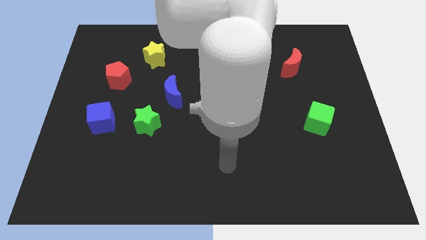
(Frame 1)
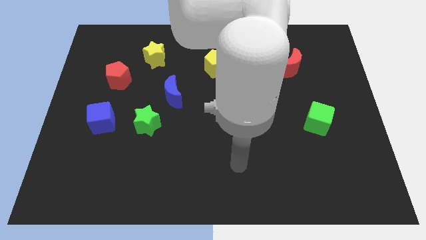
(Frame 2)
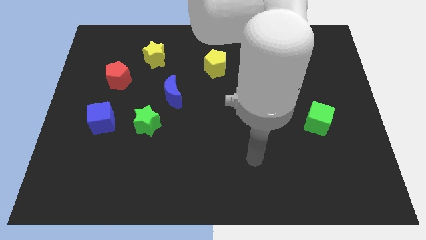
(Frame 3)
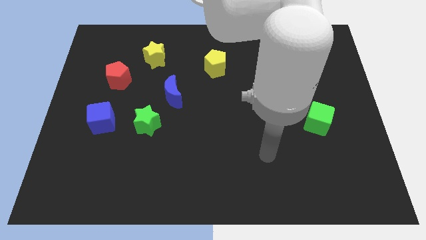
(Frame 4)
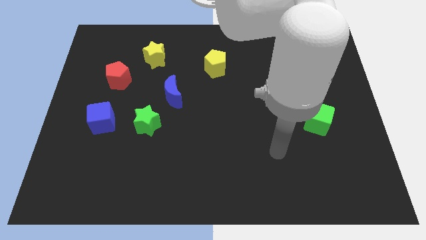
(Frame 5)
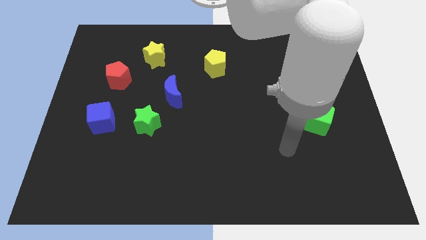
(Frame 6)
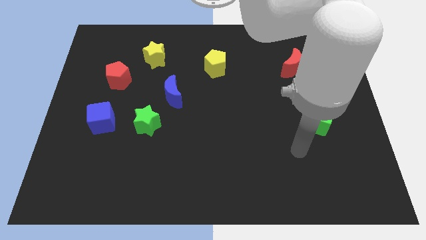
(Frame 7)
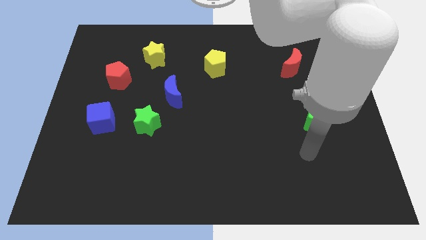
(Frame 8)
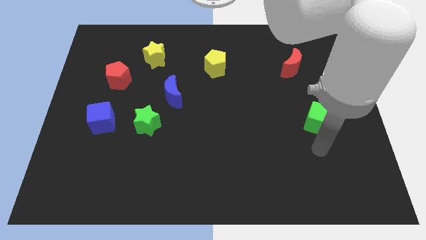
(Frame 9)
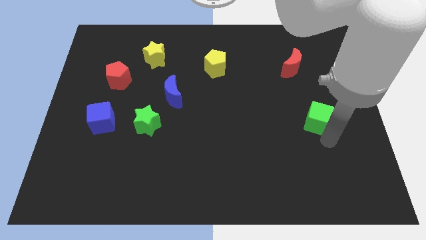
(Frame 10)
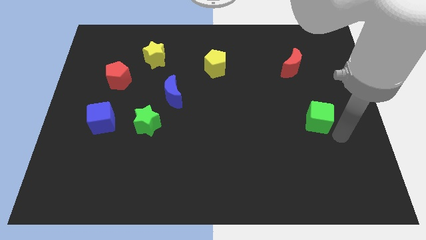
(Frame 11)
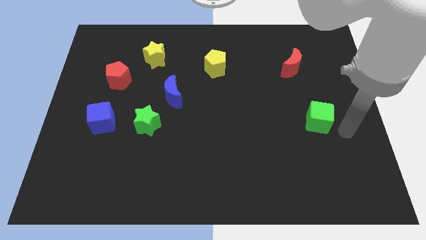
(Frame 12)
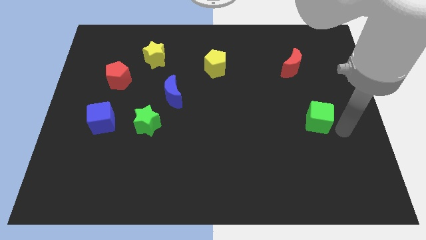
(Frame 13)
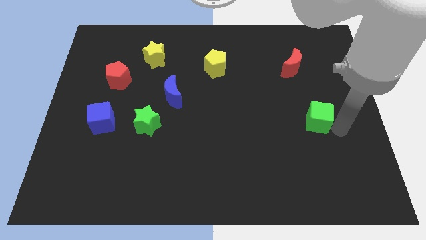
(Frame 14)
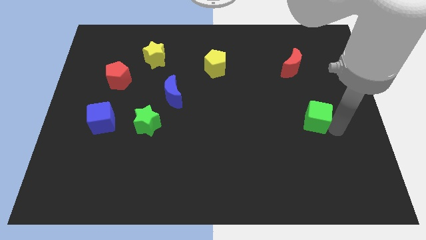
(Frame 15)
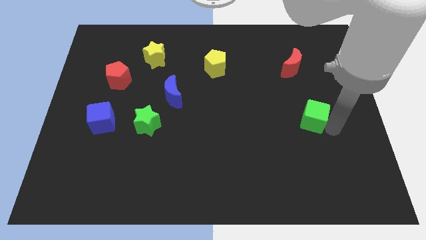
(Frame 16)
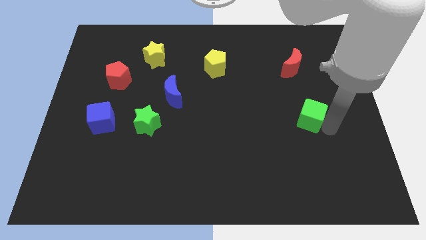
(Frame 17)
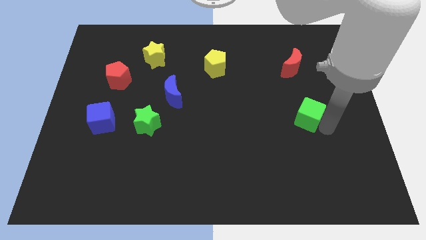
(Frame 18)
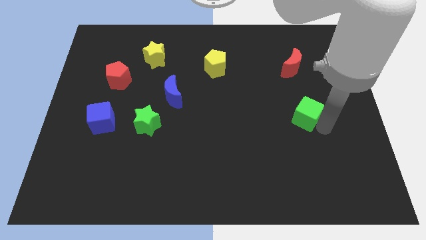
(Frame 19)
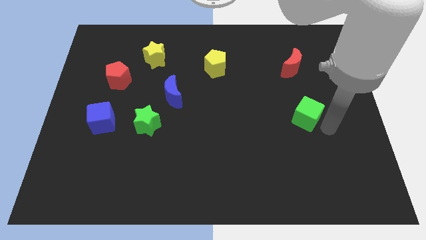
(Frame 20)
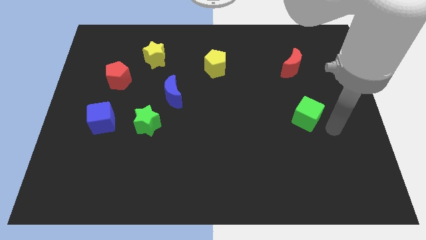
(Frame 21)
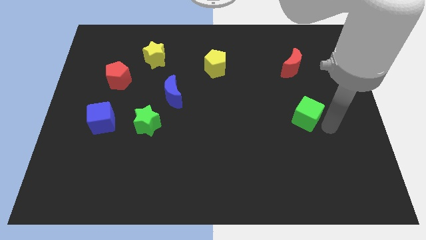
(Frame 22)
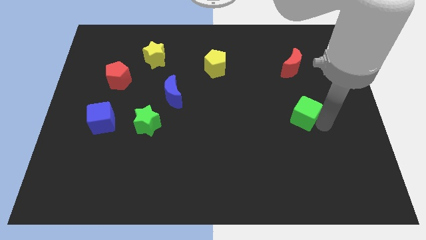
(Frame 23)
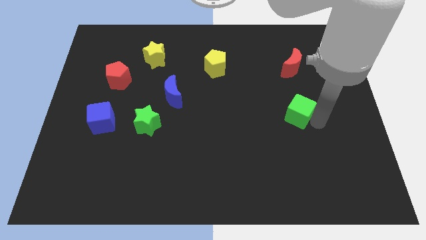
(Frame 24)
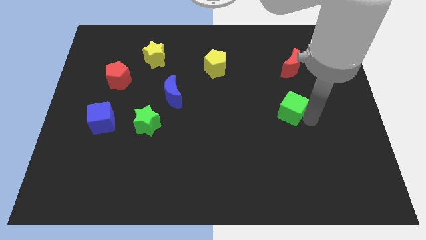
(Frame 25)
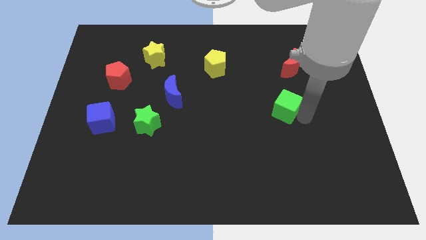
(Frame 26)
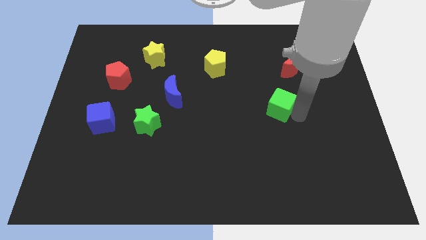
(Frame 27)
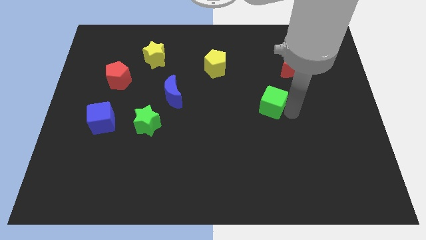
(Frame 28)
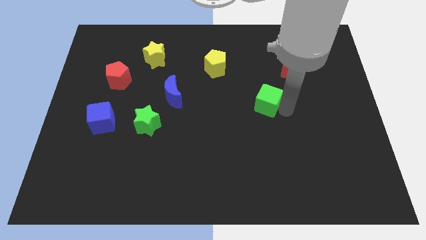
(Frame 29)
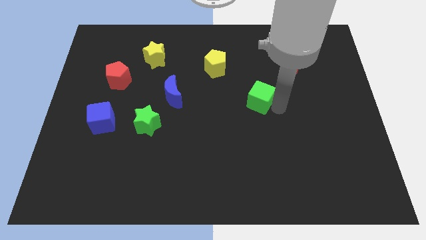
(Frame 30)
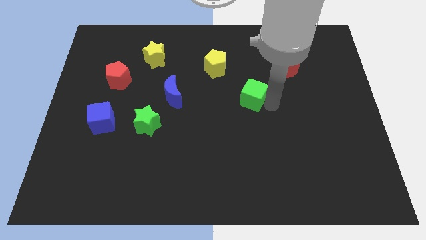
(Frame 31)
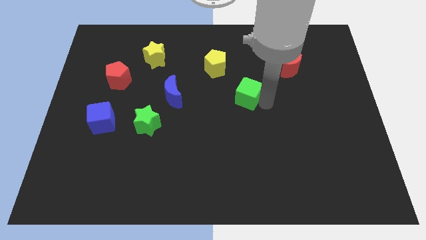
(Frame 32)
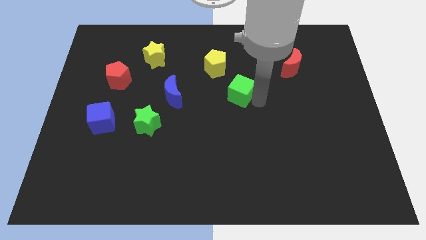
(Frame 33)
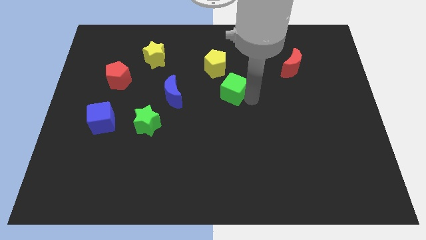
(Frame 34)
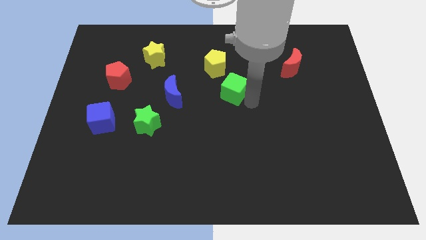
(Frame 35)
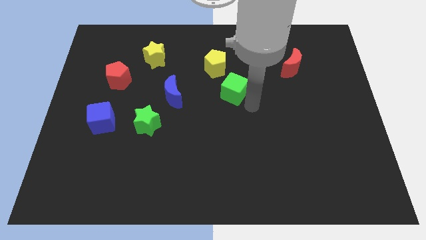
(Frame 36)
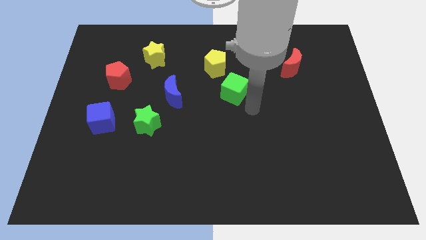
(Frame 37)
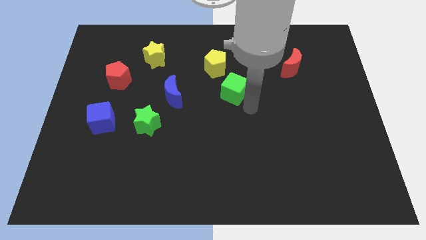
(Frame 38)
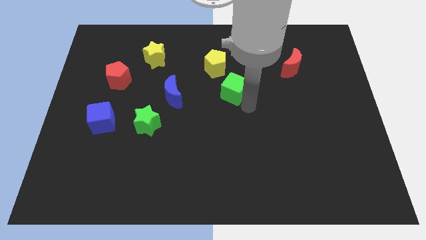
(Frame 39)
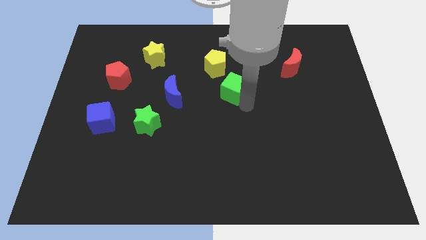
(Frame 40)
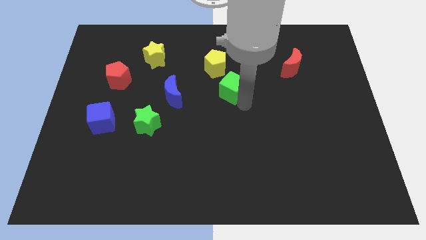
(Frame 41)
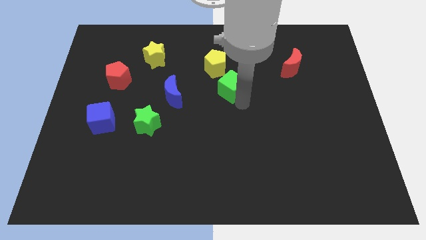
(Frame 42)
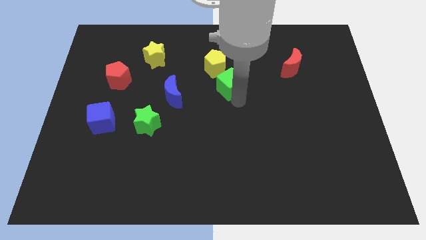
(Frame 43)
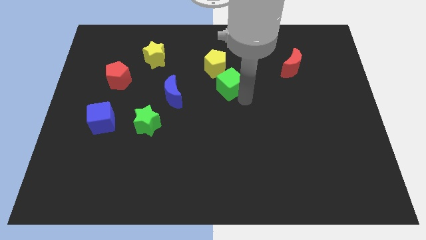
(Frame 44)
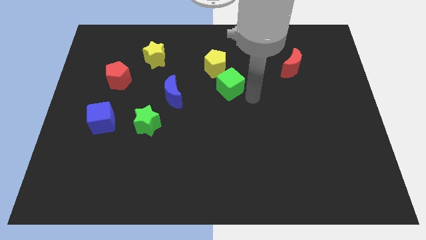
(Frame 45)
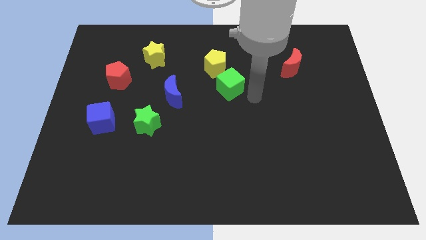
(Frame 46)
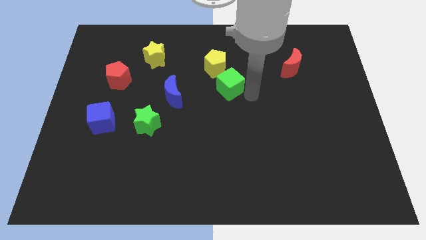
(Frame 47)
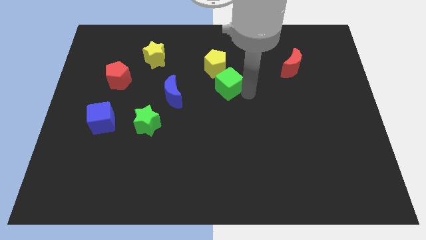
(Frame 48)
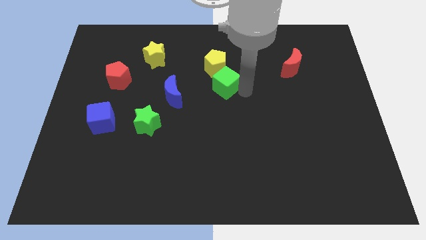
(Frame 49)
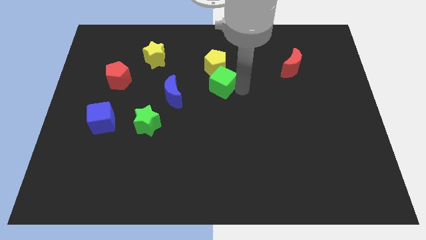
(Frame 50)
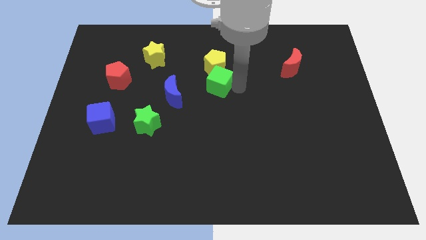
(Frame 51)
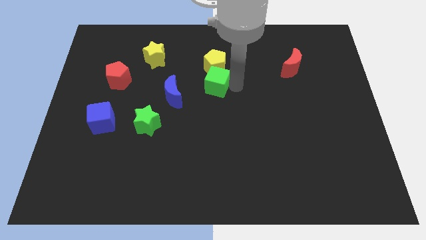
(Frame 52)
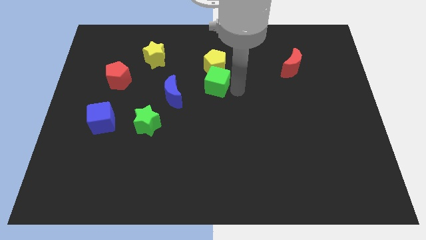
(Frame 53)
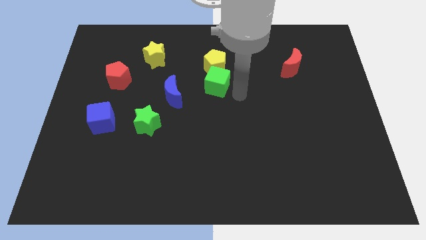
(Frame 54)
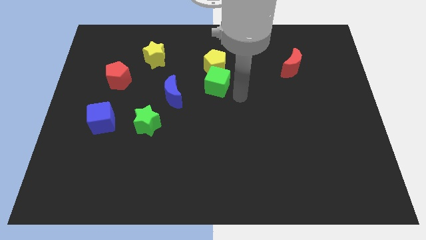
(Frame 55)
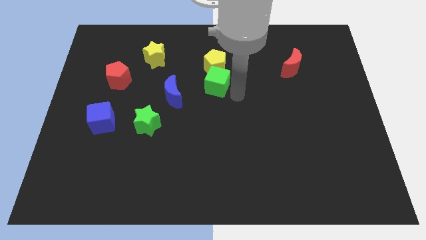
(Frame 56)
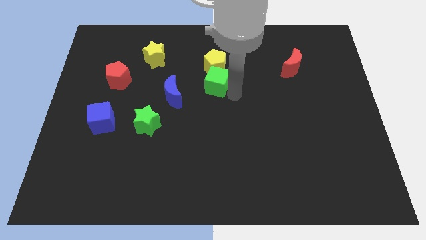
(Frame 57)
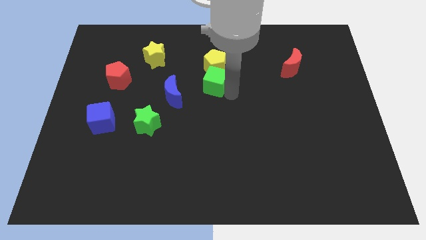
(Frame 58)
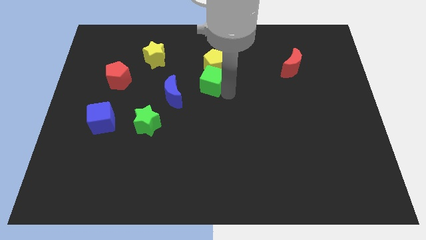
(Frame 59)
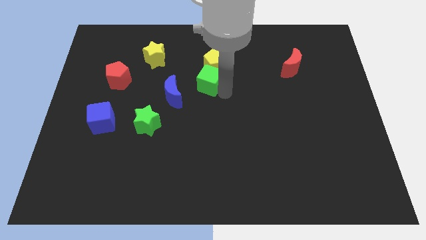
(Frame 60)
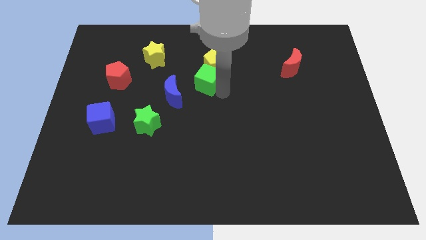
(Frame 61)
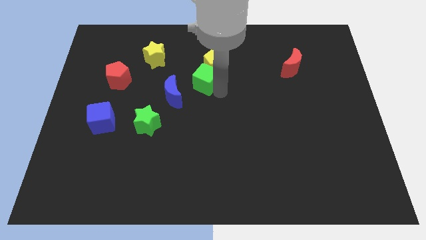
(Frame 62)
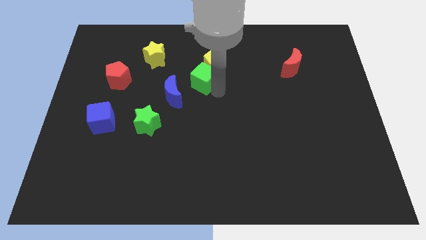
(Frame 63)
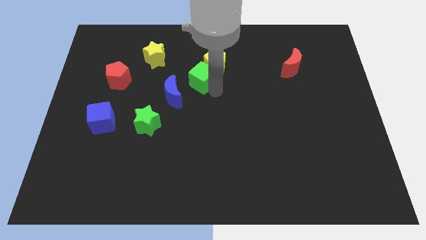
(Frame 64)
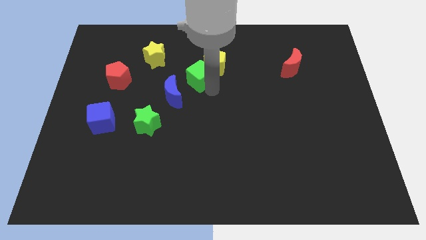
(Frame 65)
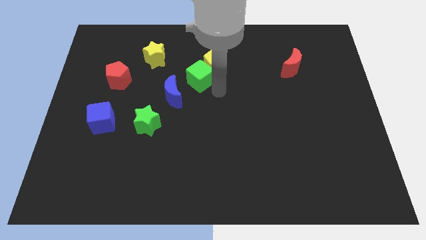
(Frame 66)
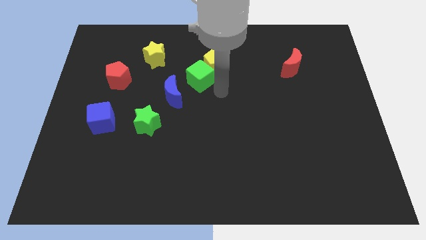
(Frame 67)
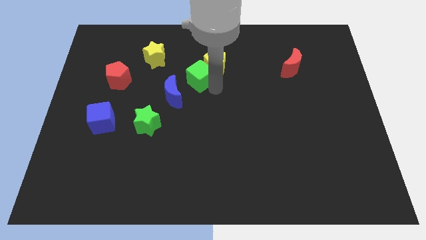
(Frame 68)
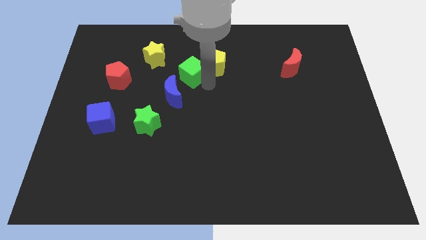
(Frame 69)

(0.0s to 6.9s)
move the green cube above the blue moon
